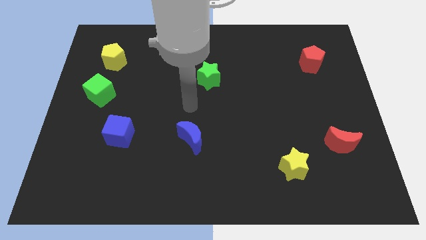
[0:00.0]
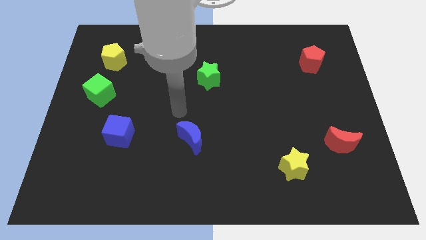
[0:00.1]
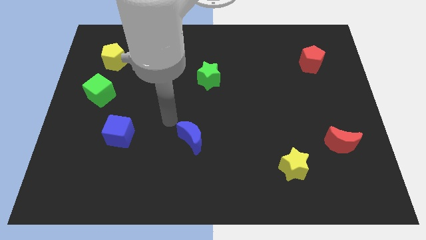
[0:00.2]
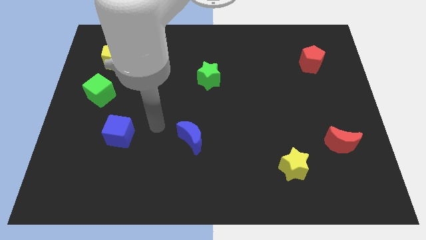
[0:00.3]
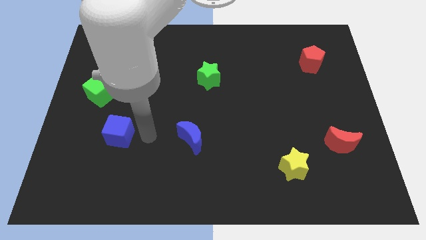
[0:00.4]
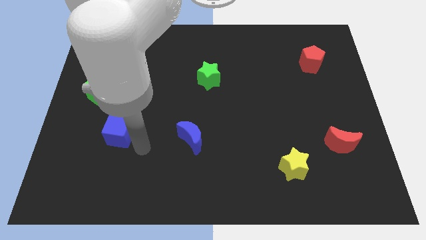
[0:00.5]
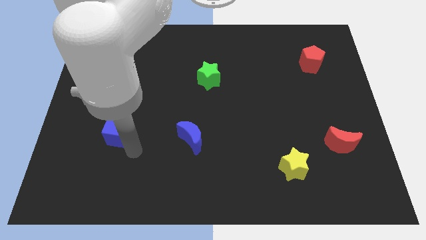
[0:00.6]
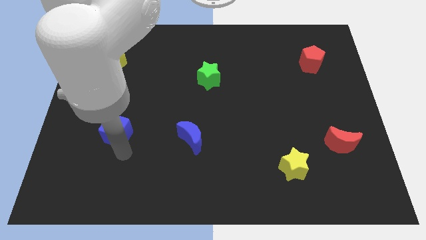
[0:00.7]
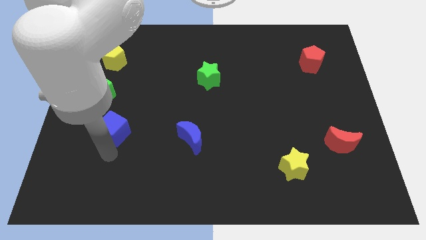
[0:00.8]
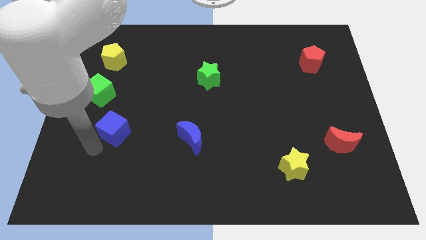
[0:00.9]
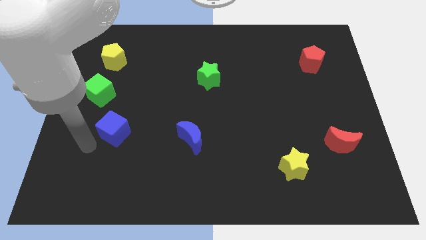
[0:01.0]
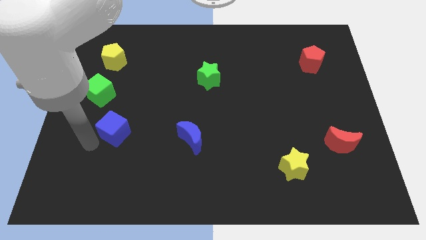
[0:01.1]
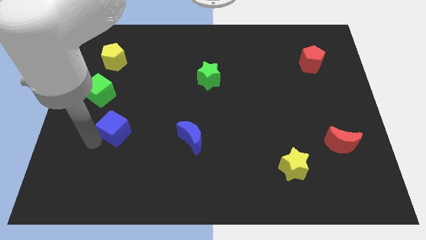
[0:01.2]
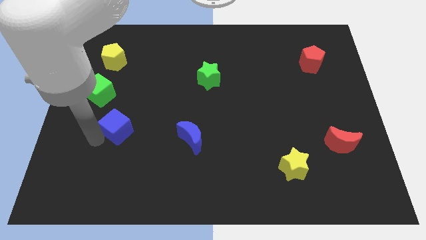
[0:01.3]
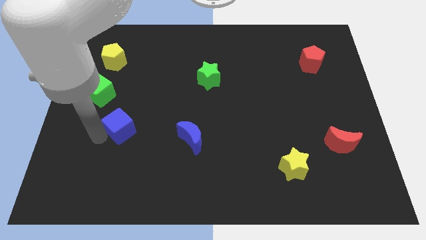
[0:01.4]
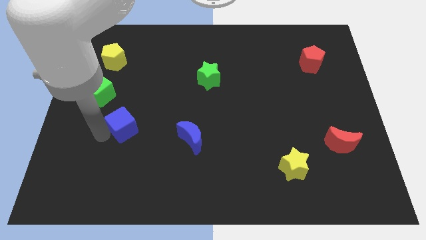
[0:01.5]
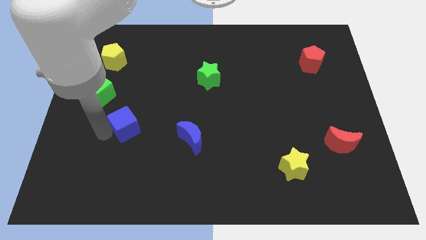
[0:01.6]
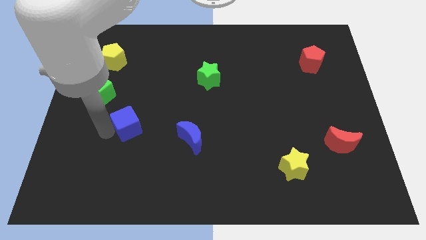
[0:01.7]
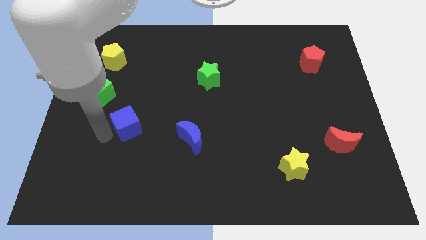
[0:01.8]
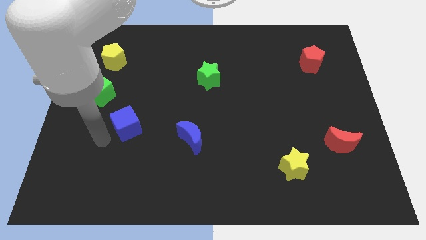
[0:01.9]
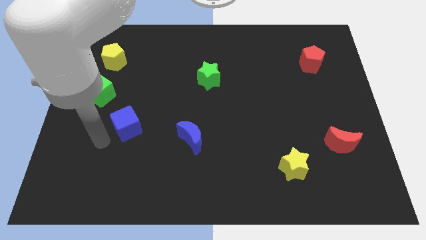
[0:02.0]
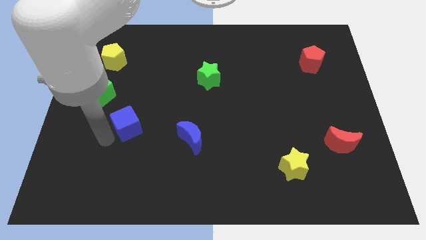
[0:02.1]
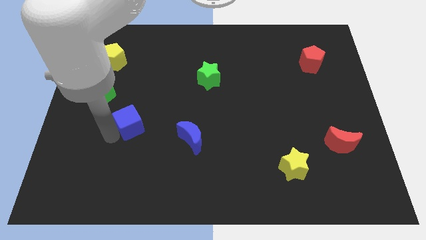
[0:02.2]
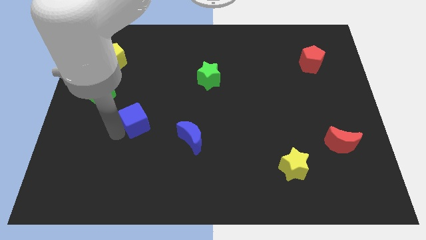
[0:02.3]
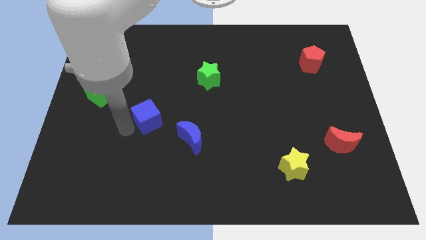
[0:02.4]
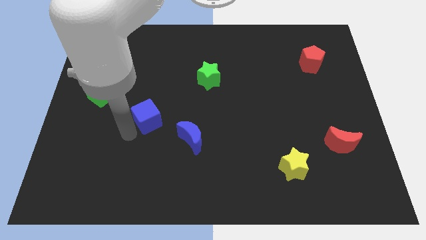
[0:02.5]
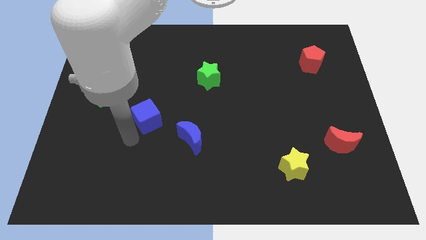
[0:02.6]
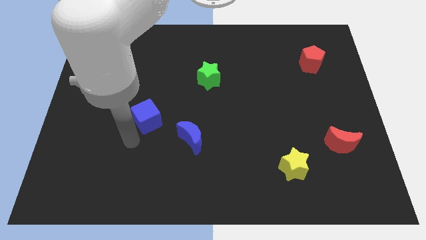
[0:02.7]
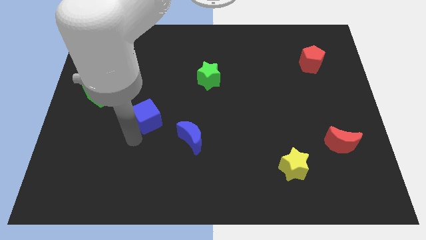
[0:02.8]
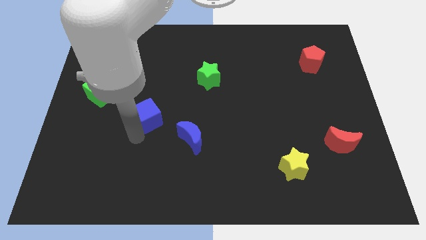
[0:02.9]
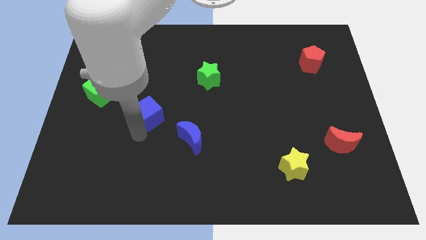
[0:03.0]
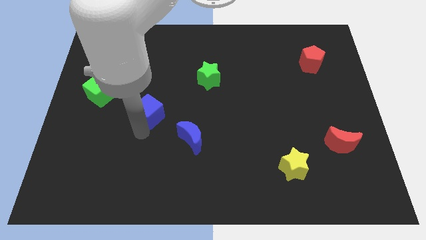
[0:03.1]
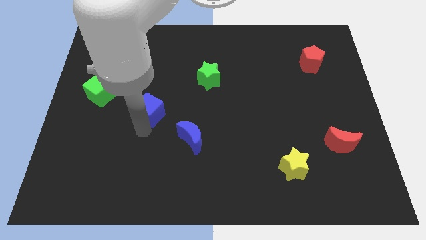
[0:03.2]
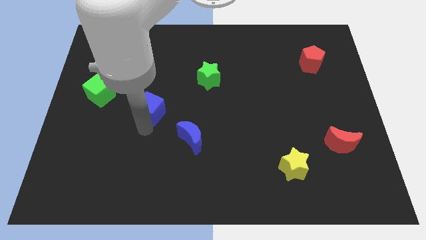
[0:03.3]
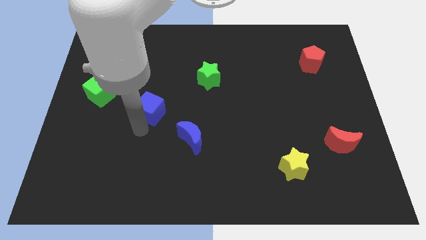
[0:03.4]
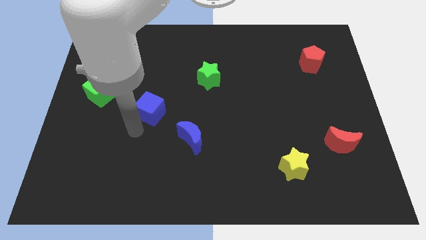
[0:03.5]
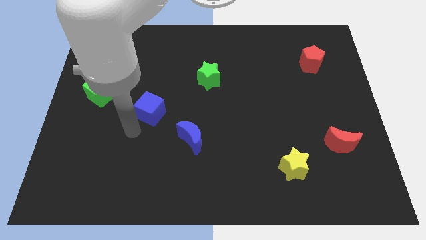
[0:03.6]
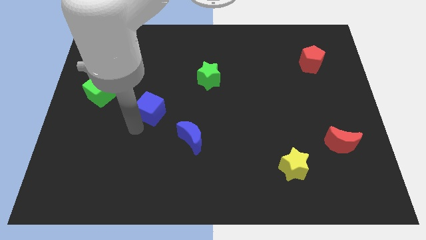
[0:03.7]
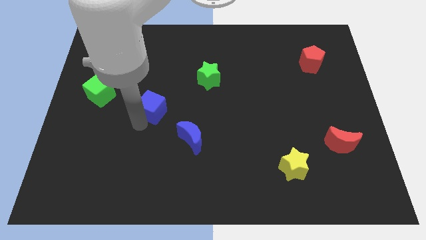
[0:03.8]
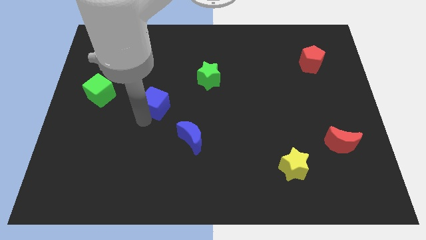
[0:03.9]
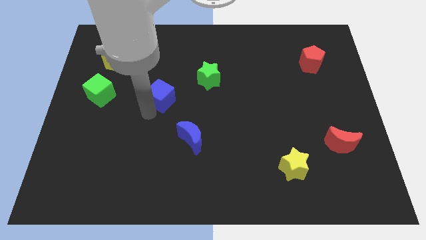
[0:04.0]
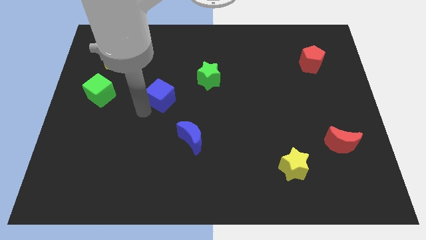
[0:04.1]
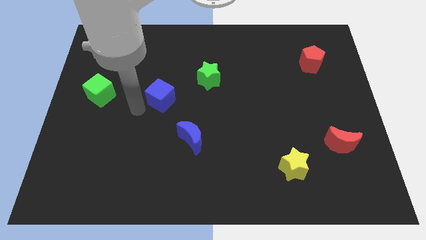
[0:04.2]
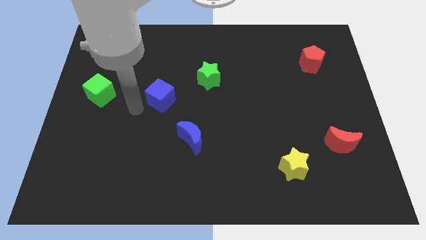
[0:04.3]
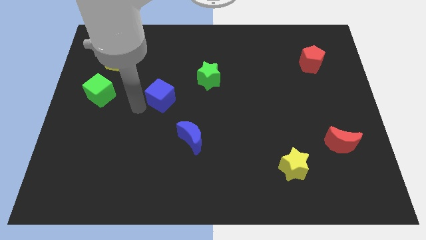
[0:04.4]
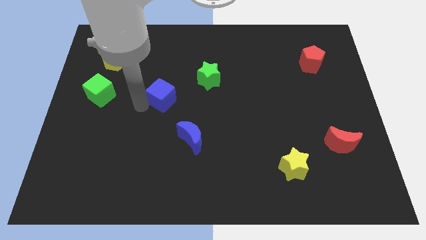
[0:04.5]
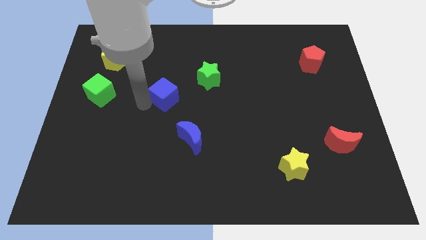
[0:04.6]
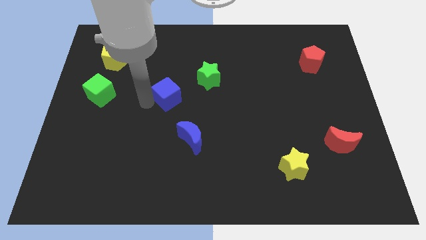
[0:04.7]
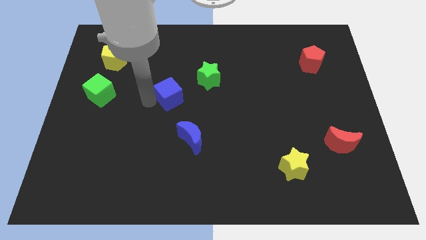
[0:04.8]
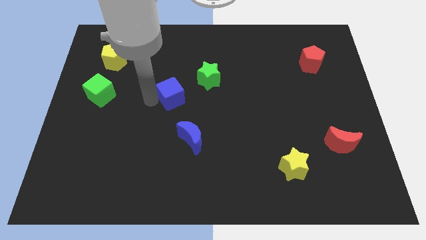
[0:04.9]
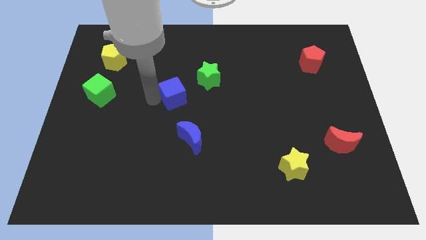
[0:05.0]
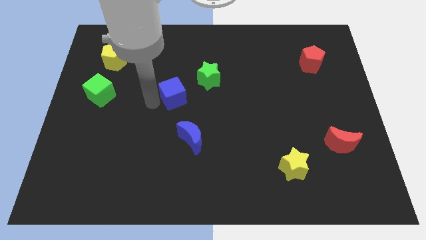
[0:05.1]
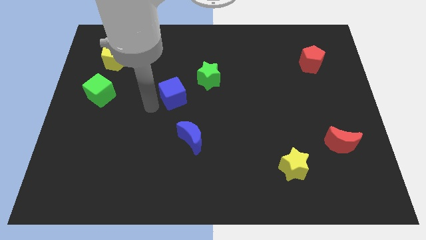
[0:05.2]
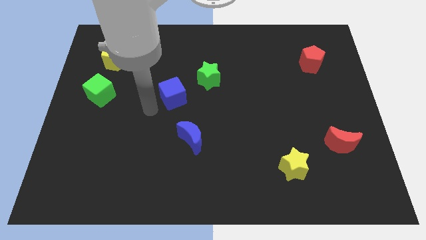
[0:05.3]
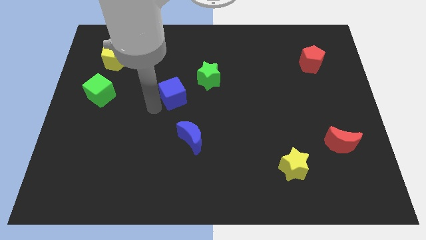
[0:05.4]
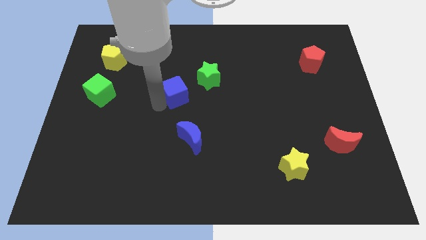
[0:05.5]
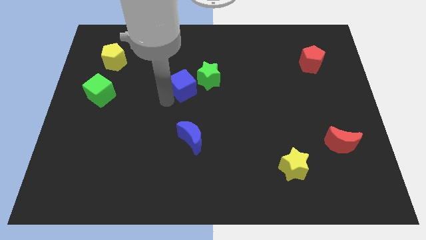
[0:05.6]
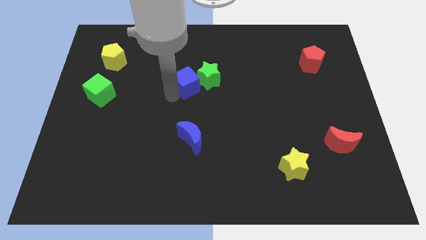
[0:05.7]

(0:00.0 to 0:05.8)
put the blue cube next to the green star

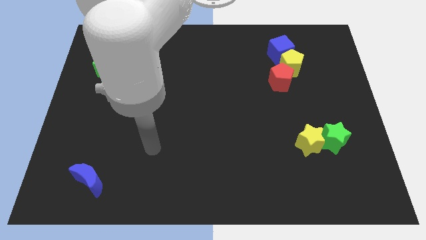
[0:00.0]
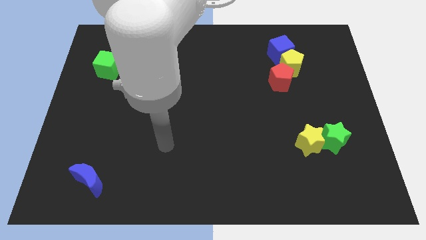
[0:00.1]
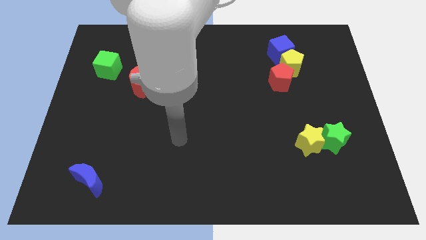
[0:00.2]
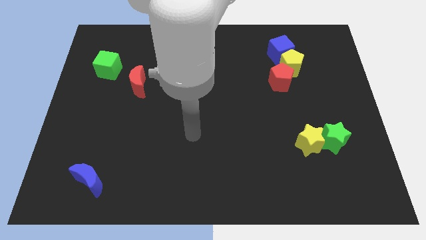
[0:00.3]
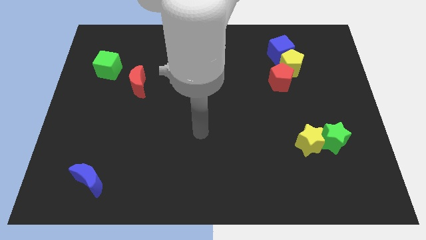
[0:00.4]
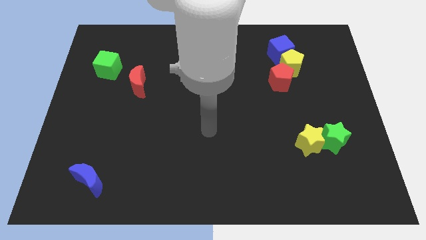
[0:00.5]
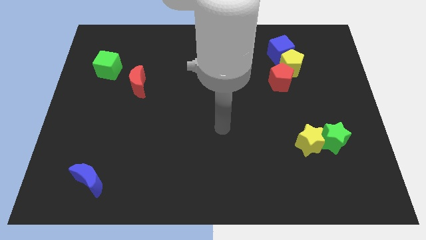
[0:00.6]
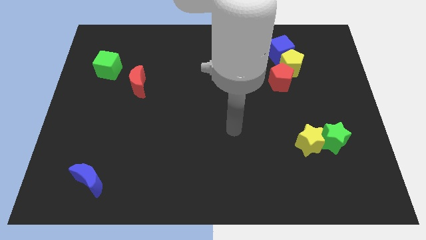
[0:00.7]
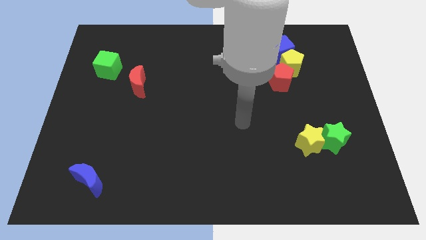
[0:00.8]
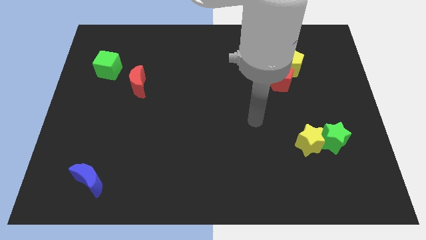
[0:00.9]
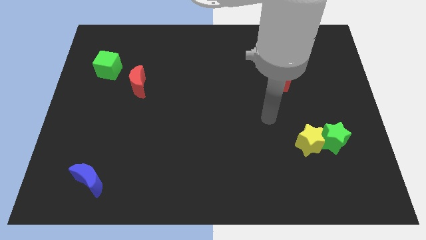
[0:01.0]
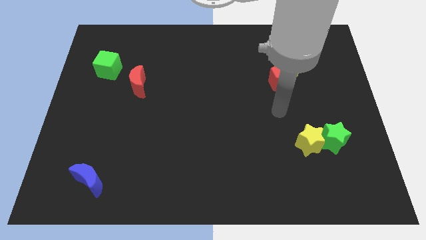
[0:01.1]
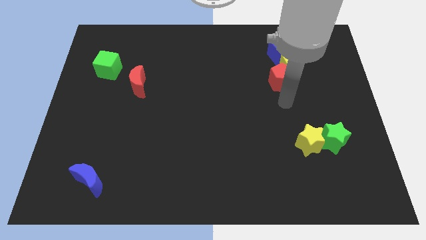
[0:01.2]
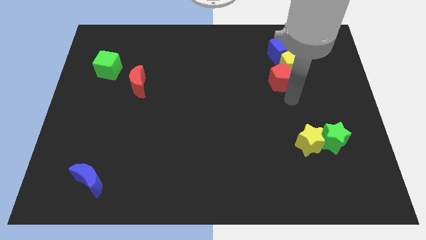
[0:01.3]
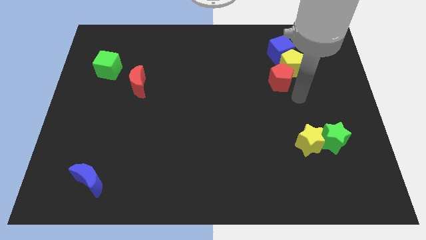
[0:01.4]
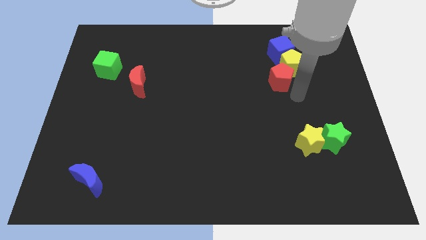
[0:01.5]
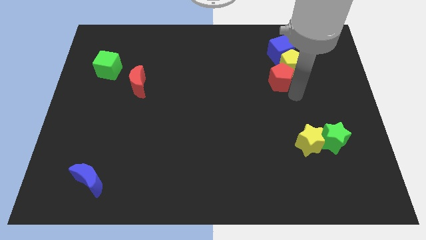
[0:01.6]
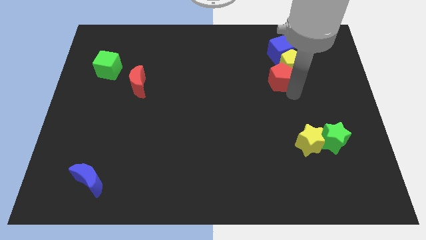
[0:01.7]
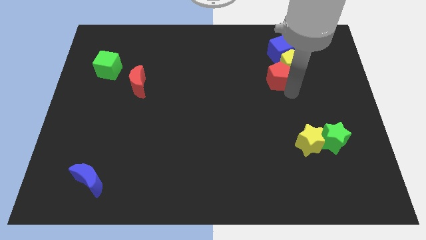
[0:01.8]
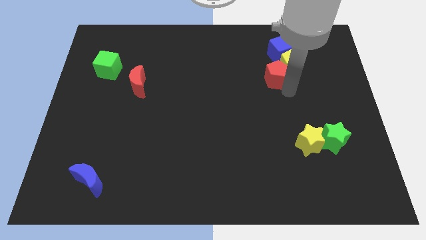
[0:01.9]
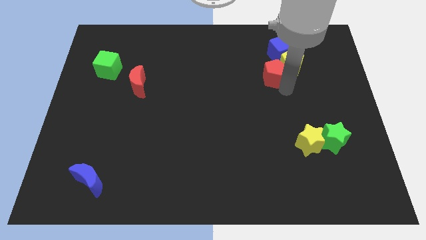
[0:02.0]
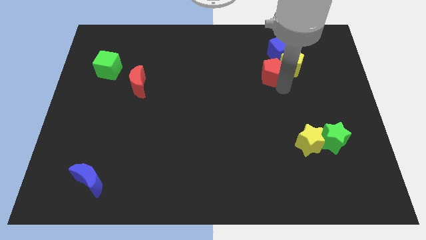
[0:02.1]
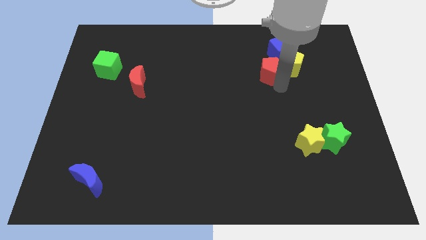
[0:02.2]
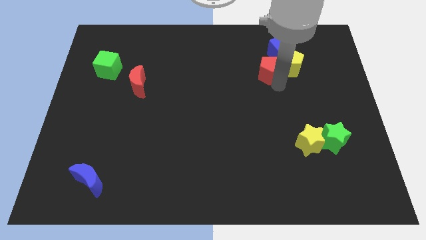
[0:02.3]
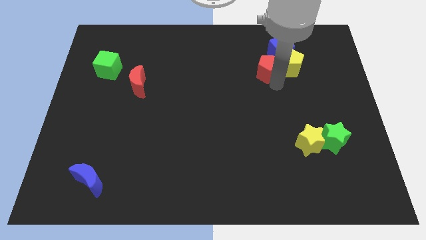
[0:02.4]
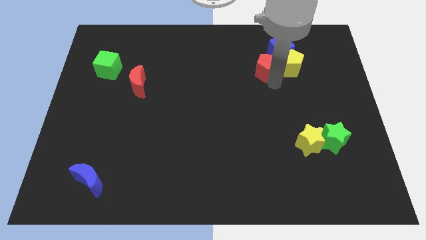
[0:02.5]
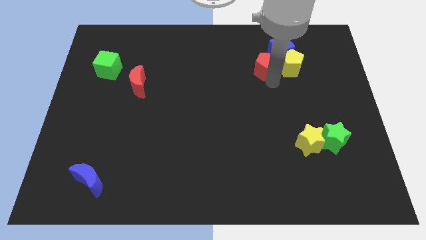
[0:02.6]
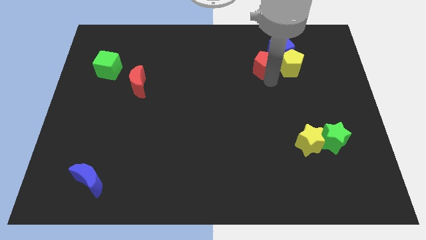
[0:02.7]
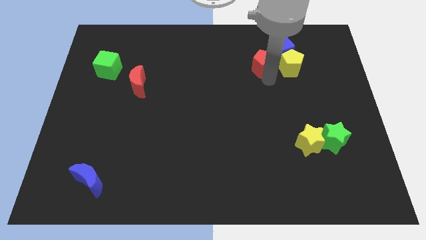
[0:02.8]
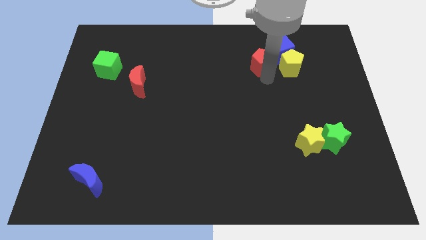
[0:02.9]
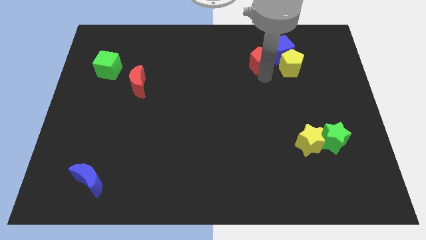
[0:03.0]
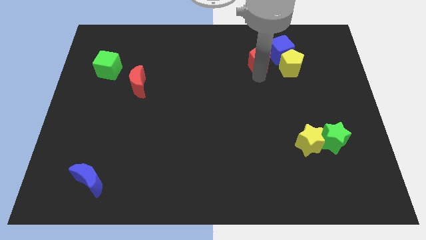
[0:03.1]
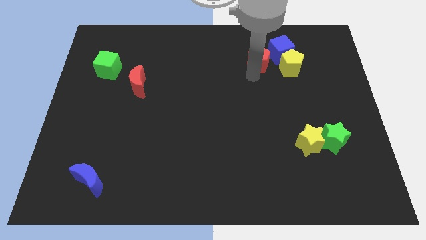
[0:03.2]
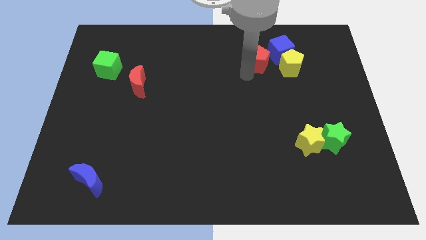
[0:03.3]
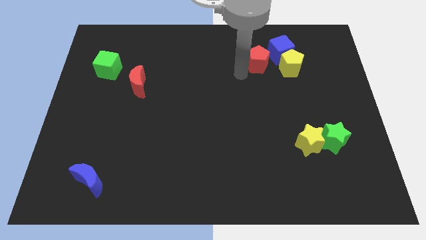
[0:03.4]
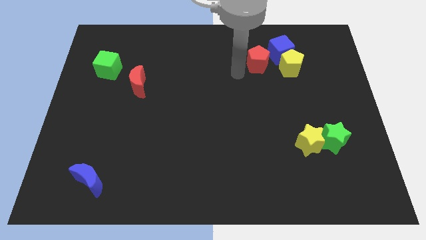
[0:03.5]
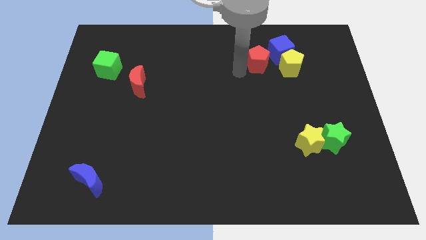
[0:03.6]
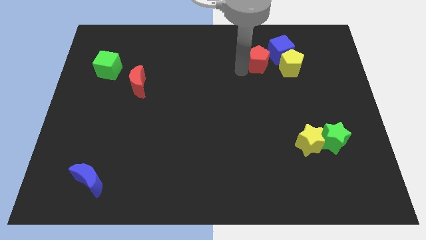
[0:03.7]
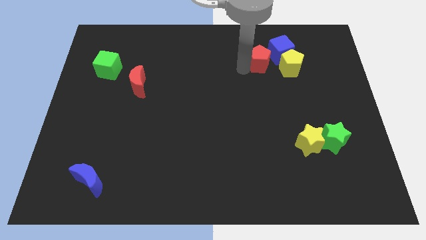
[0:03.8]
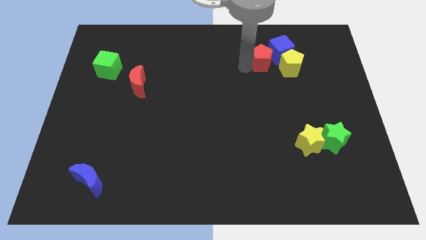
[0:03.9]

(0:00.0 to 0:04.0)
slide the red pentagon close to the blue cube
